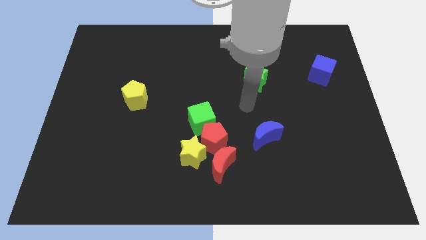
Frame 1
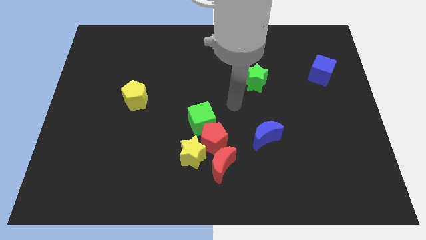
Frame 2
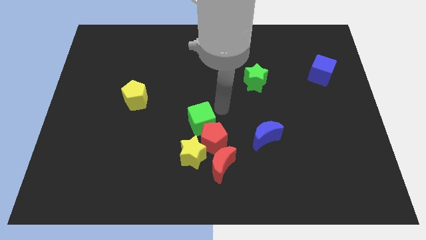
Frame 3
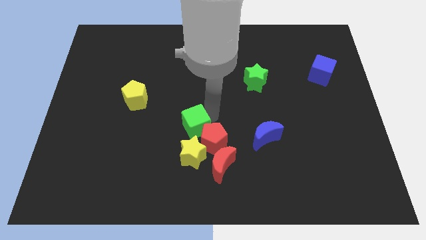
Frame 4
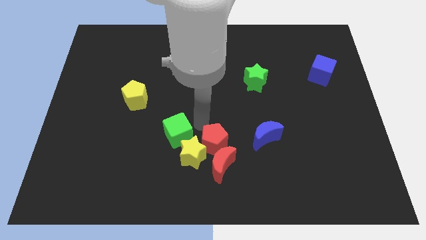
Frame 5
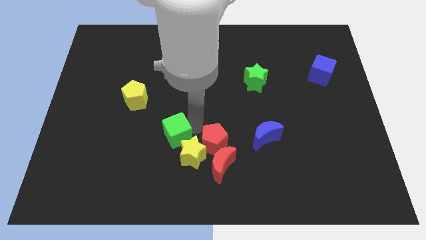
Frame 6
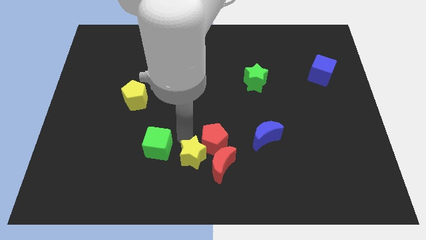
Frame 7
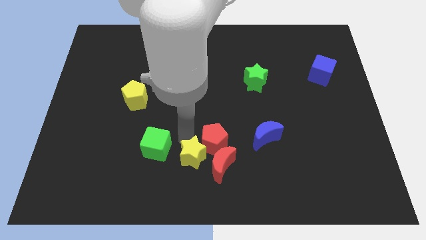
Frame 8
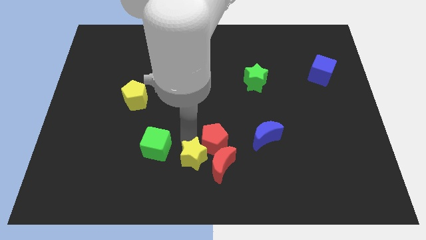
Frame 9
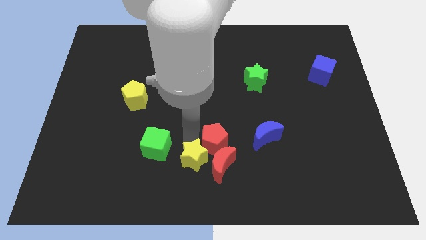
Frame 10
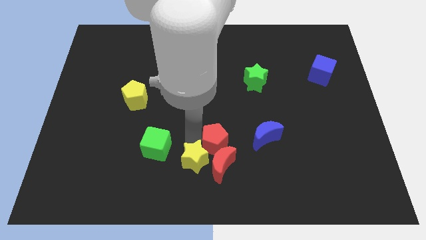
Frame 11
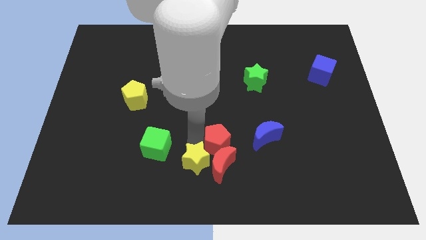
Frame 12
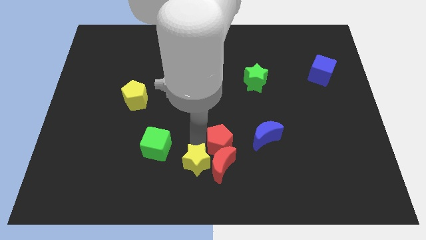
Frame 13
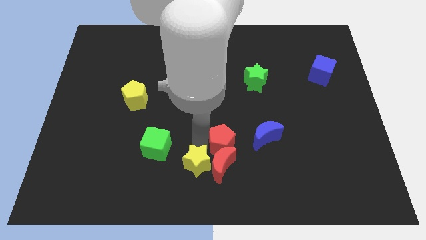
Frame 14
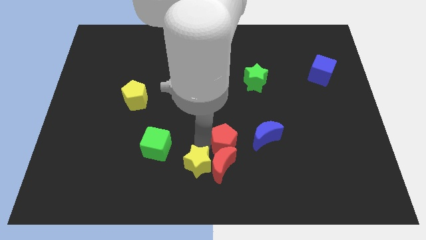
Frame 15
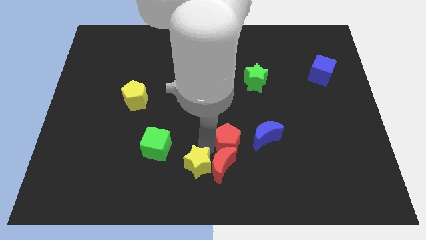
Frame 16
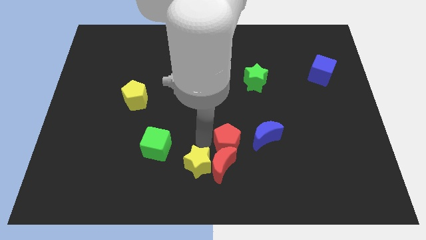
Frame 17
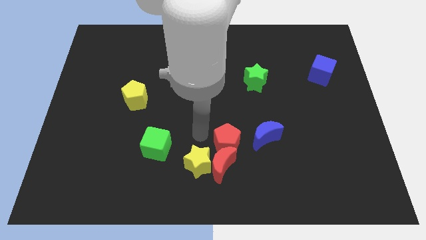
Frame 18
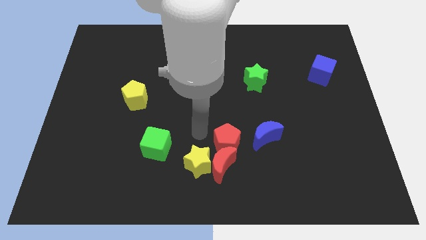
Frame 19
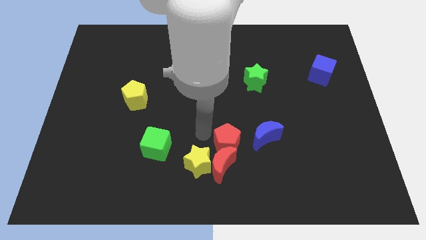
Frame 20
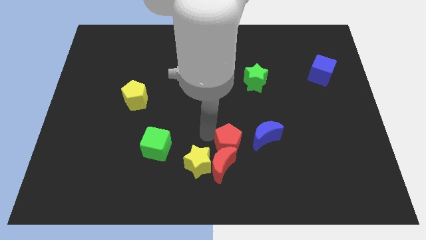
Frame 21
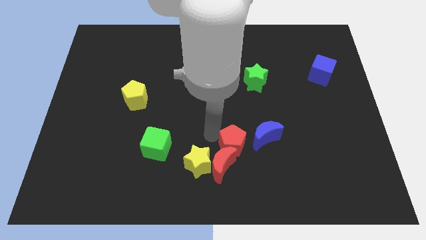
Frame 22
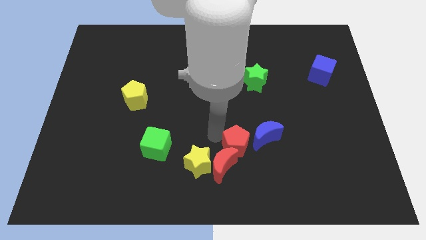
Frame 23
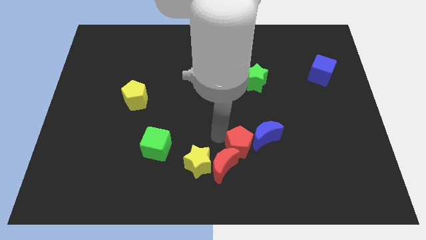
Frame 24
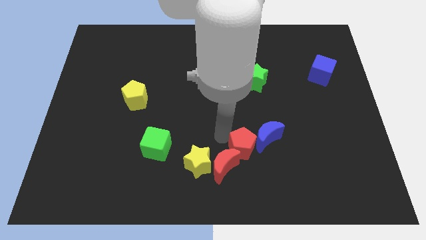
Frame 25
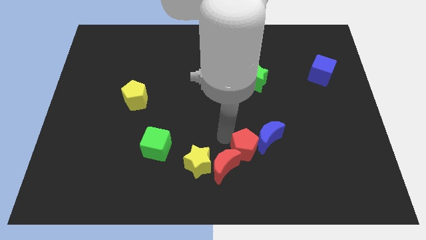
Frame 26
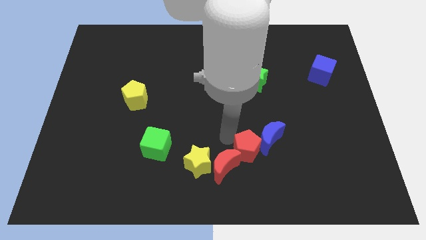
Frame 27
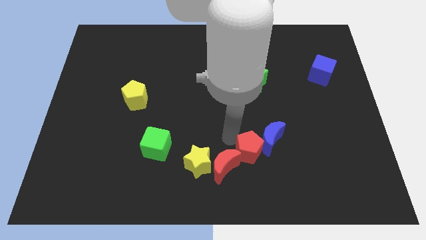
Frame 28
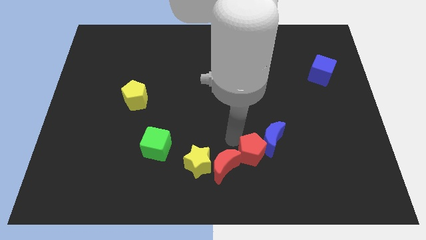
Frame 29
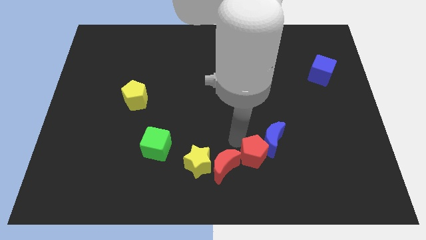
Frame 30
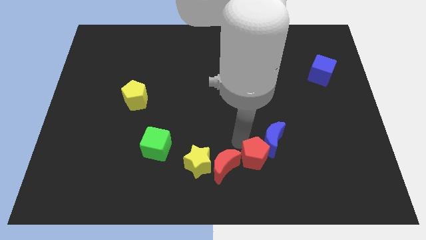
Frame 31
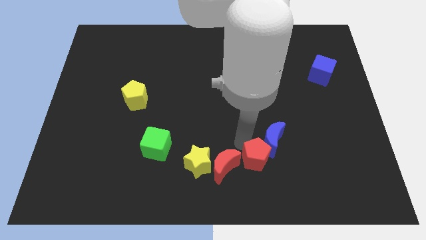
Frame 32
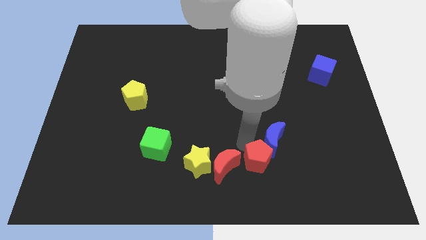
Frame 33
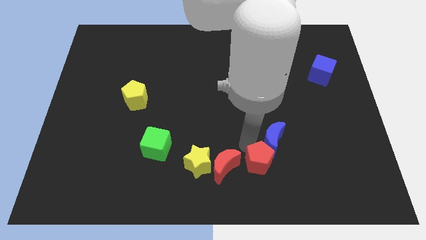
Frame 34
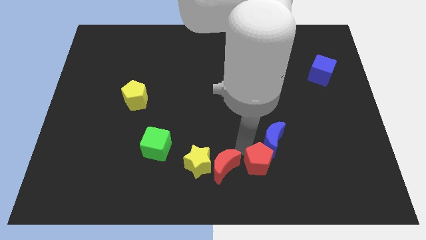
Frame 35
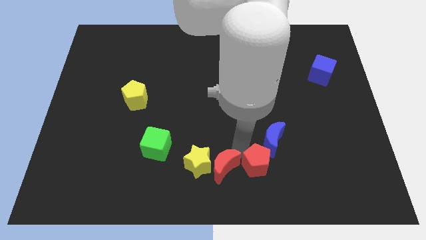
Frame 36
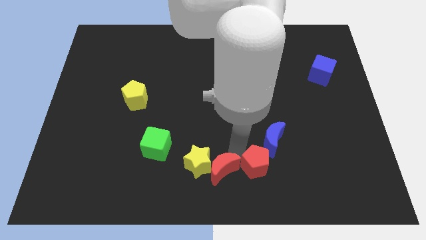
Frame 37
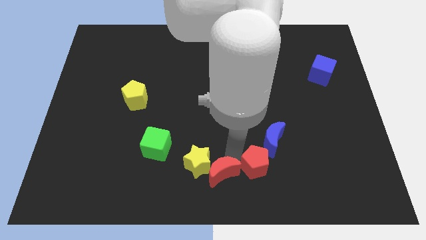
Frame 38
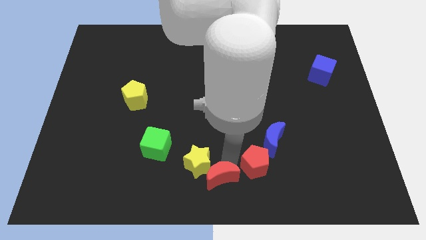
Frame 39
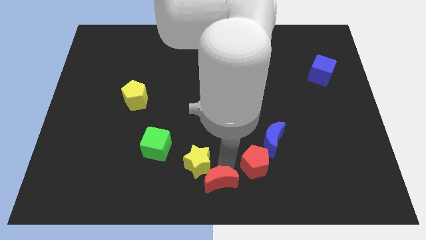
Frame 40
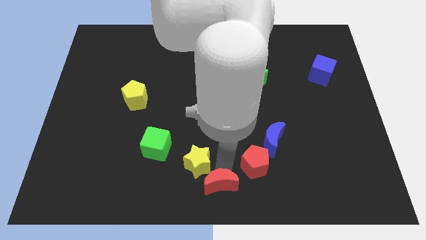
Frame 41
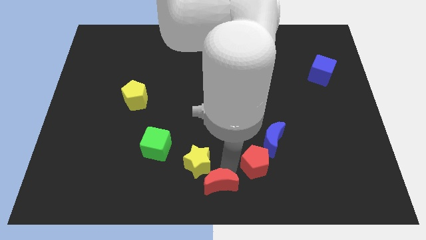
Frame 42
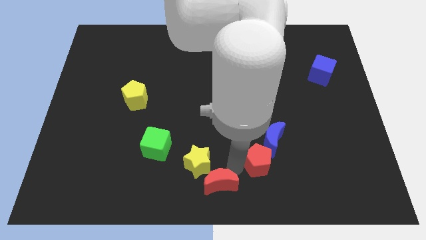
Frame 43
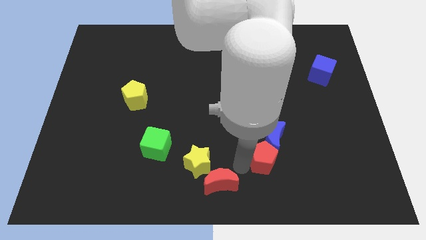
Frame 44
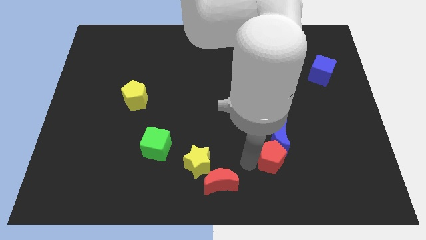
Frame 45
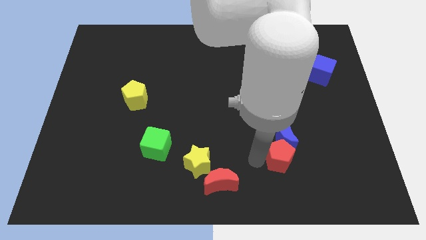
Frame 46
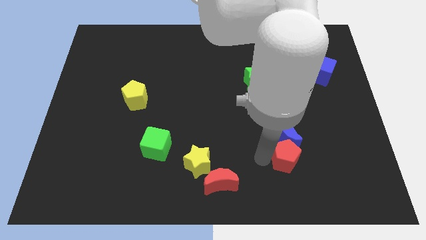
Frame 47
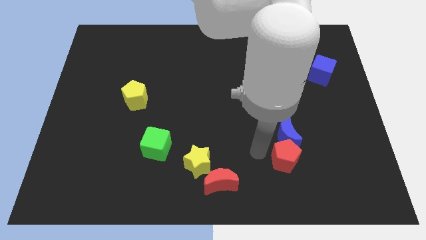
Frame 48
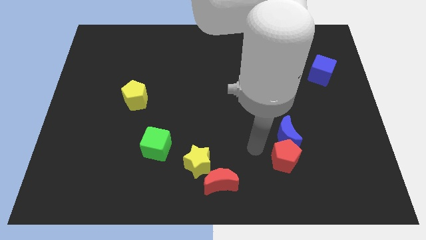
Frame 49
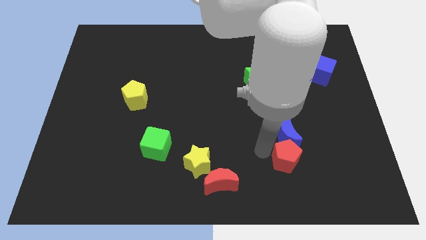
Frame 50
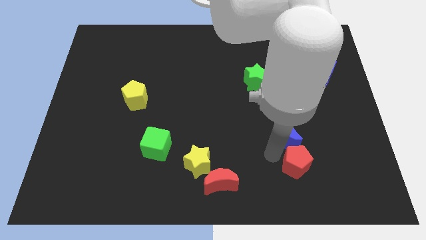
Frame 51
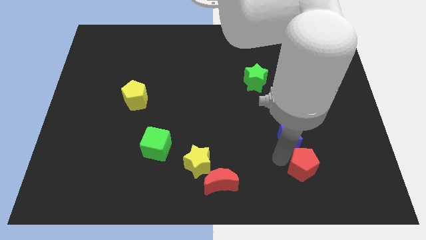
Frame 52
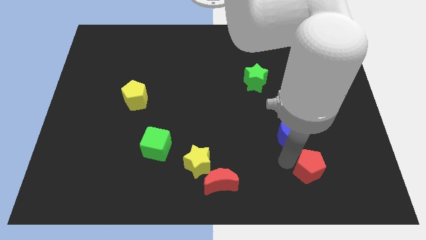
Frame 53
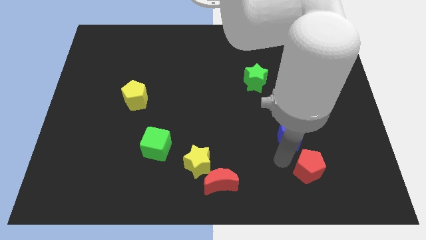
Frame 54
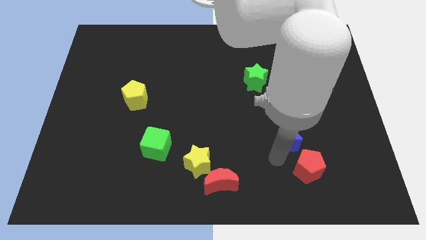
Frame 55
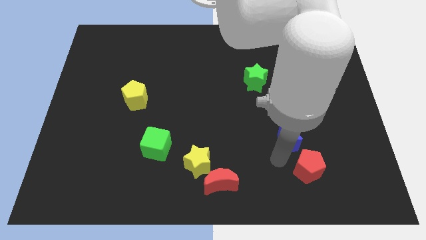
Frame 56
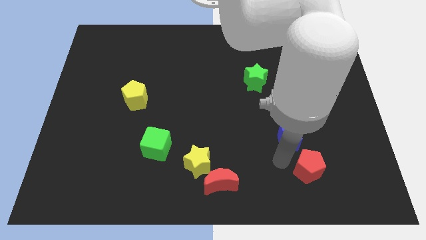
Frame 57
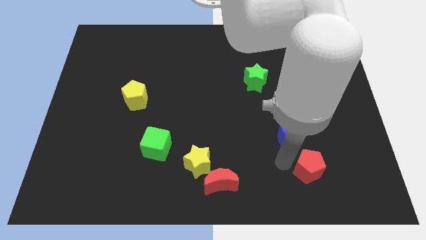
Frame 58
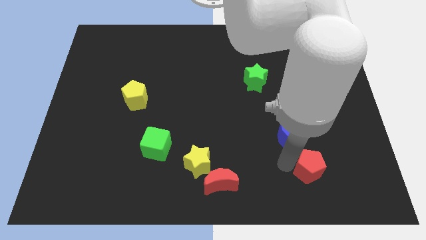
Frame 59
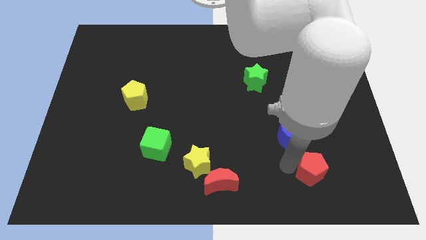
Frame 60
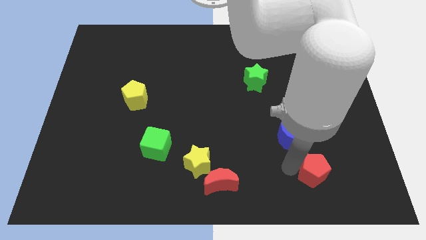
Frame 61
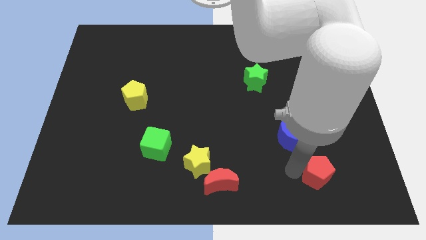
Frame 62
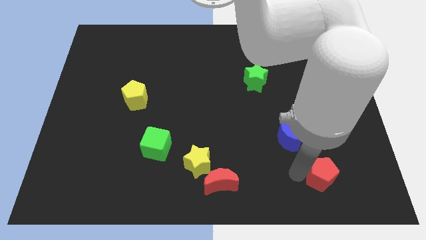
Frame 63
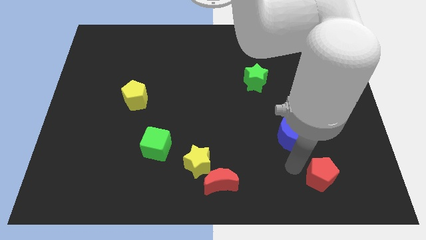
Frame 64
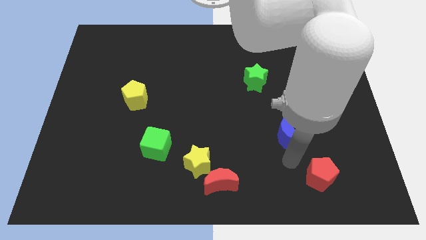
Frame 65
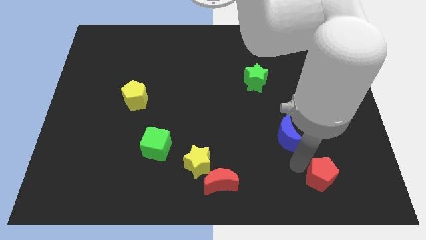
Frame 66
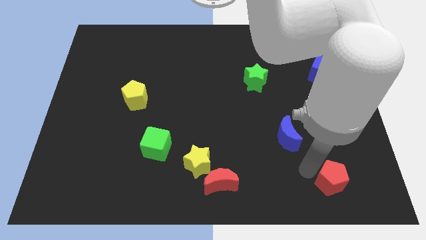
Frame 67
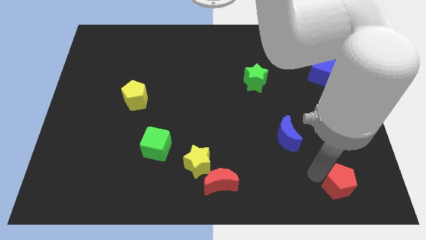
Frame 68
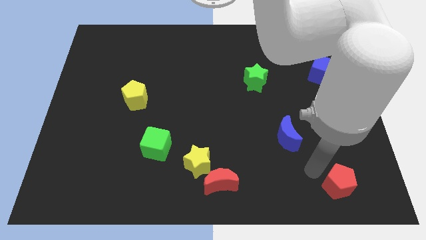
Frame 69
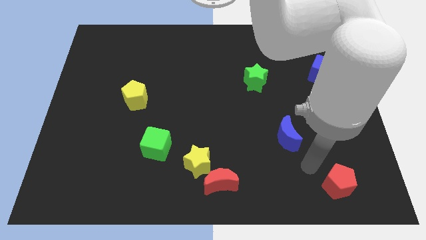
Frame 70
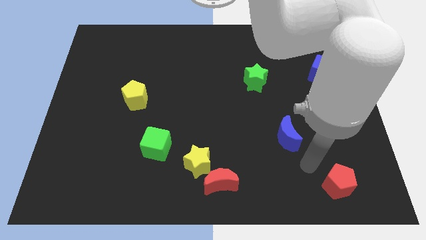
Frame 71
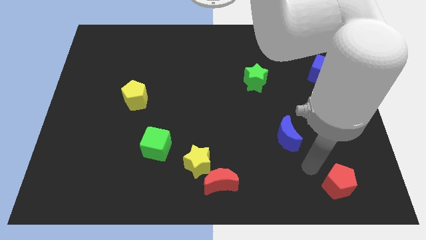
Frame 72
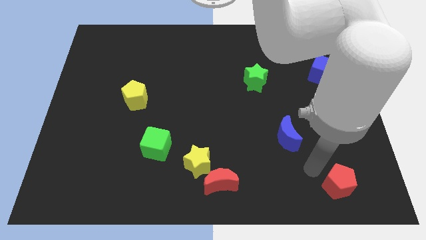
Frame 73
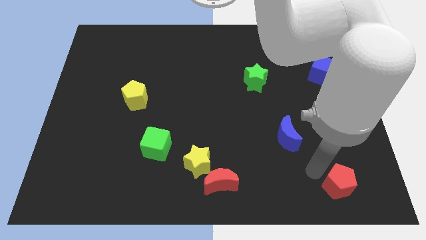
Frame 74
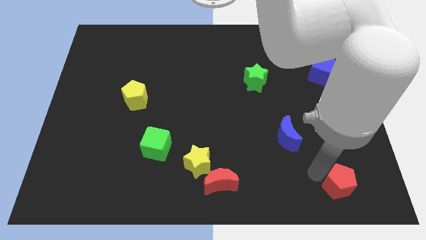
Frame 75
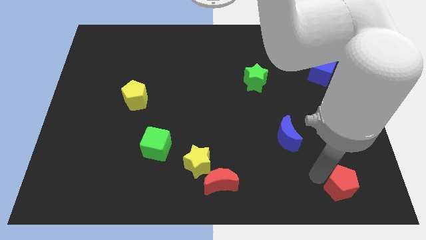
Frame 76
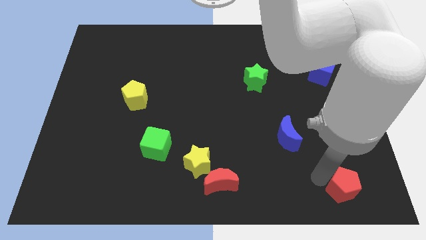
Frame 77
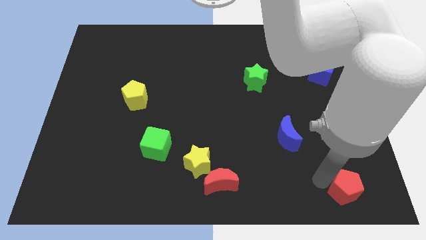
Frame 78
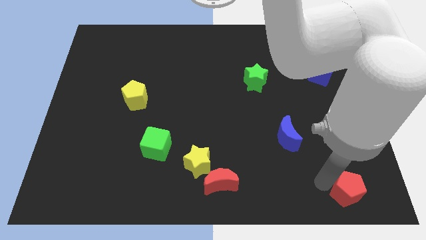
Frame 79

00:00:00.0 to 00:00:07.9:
put the red pentagon to the lower right corner
